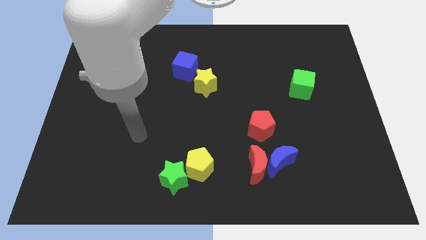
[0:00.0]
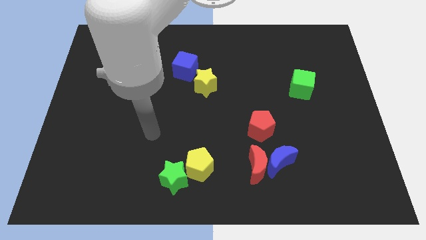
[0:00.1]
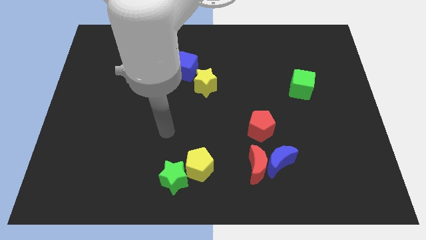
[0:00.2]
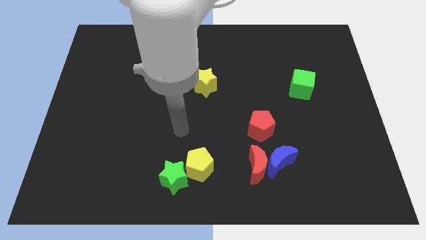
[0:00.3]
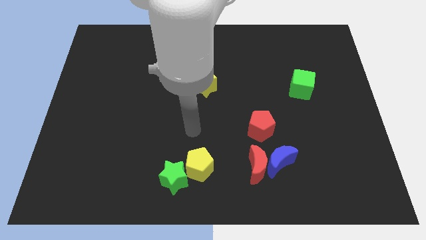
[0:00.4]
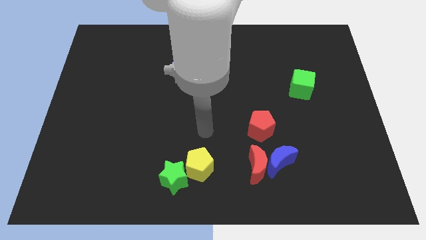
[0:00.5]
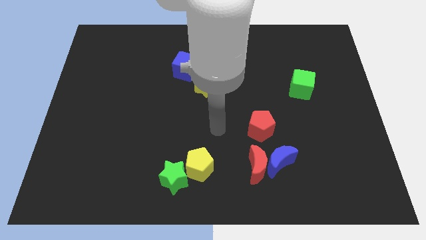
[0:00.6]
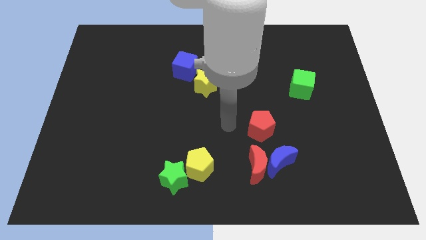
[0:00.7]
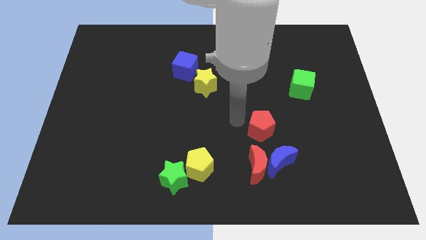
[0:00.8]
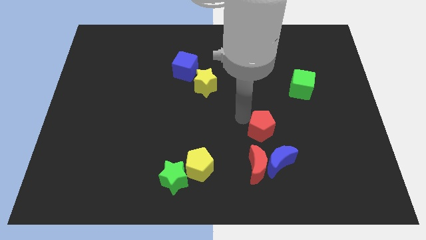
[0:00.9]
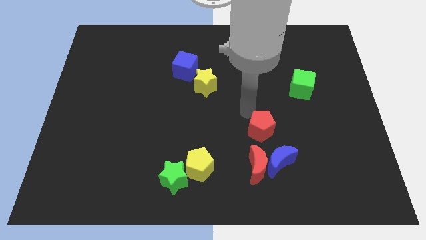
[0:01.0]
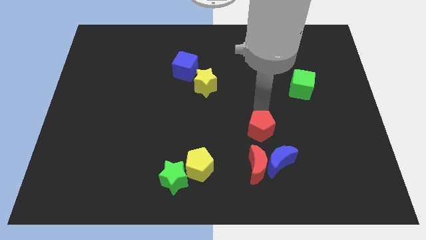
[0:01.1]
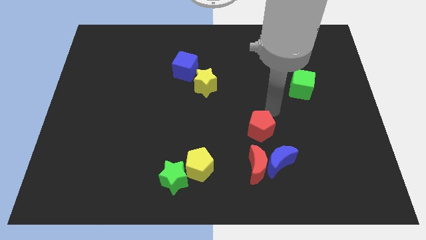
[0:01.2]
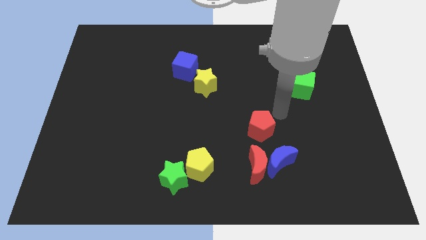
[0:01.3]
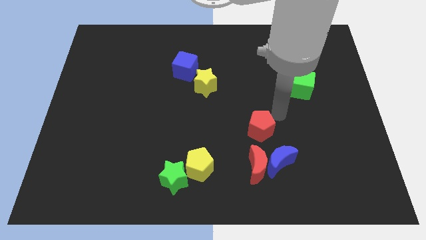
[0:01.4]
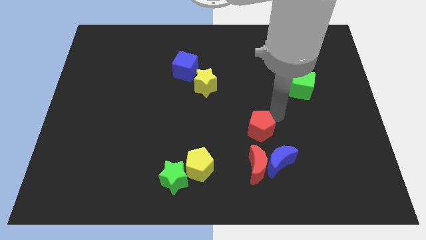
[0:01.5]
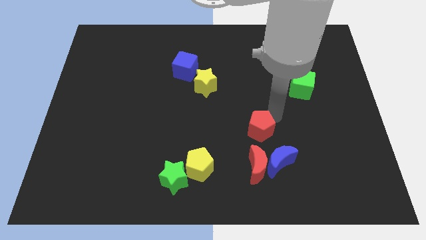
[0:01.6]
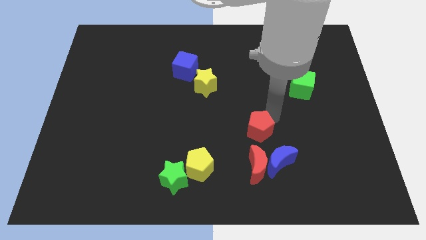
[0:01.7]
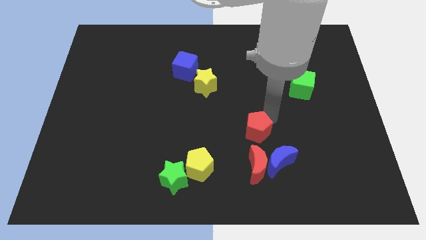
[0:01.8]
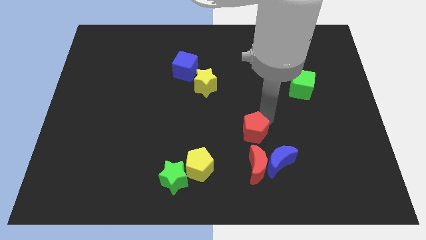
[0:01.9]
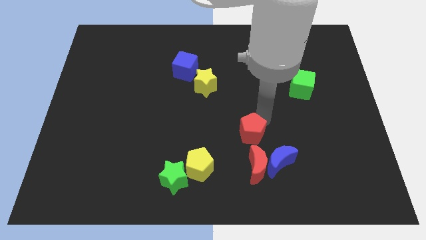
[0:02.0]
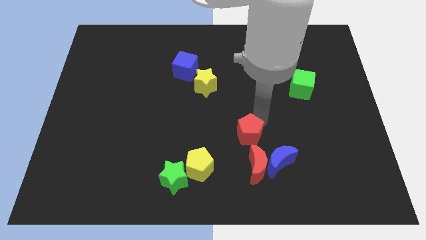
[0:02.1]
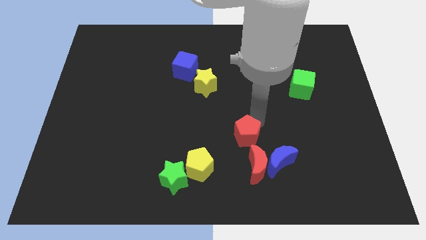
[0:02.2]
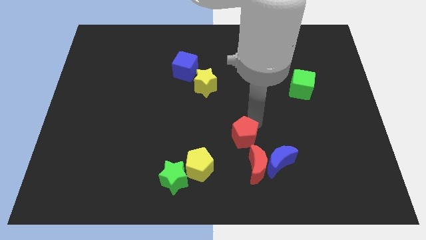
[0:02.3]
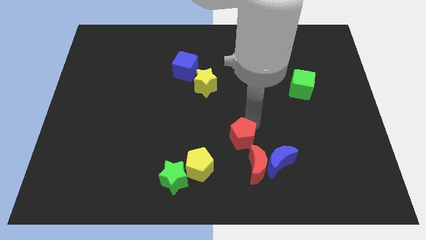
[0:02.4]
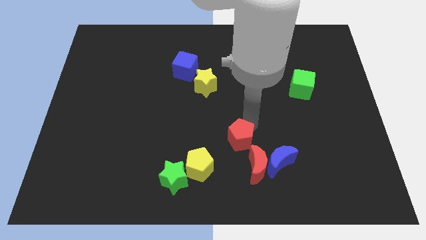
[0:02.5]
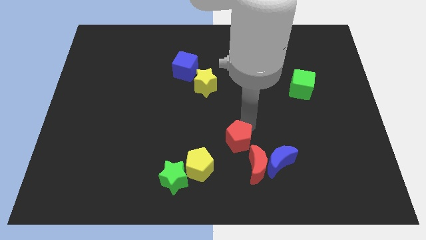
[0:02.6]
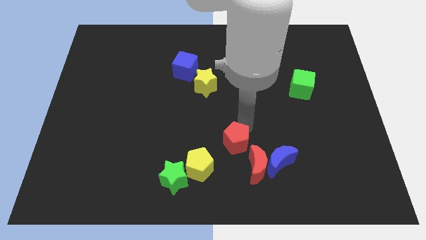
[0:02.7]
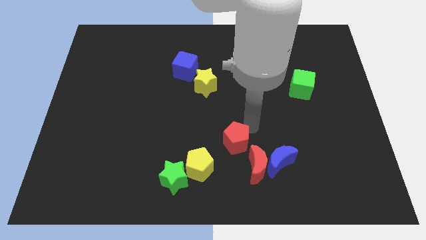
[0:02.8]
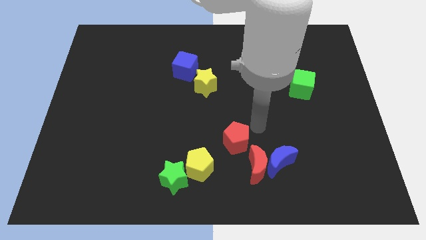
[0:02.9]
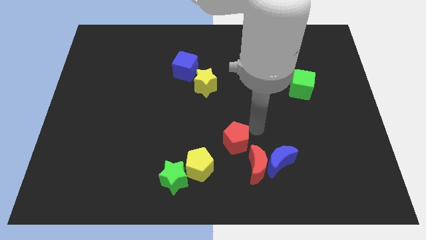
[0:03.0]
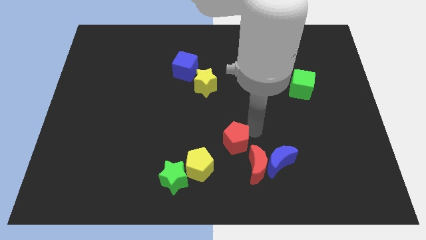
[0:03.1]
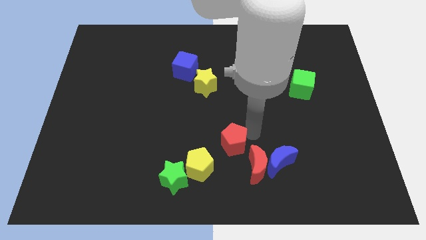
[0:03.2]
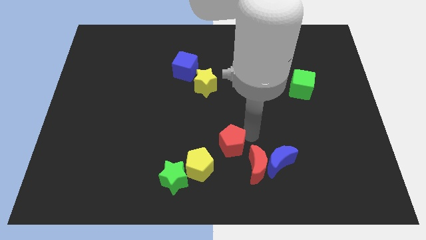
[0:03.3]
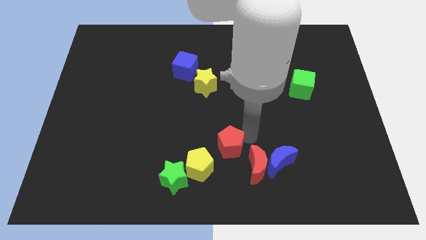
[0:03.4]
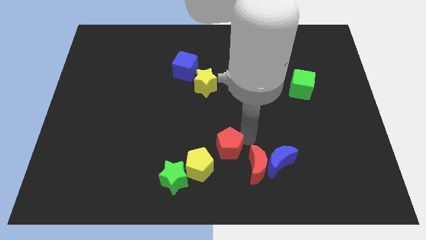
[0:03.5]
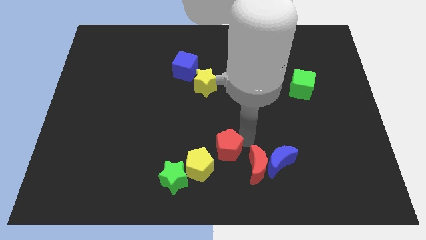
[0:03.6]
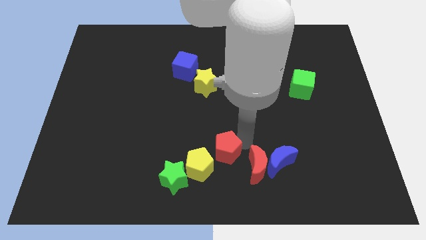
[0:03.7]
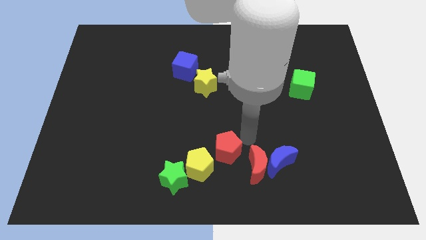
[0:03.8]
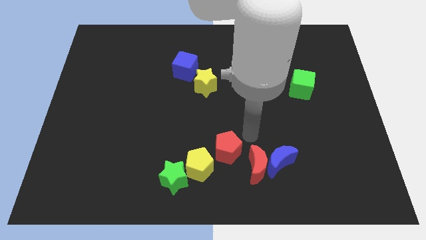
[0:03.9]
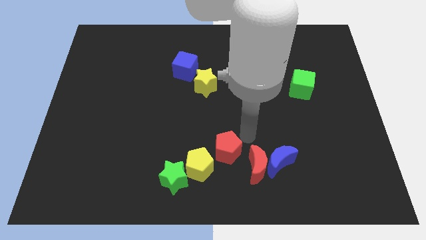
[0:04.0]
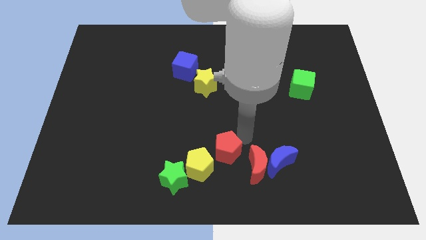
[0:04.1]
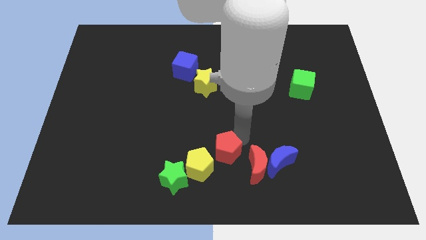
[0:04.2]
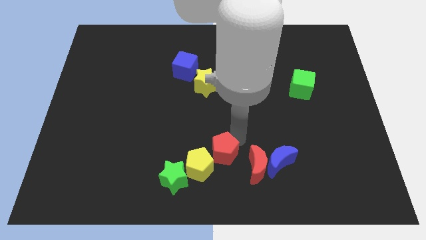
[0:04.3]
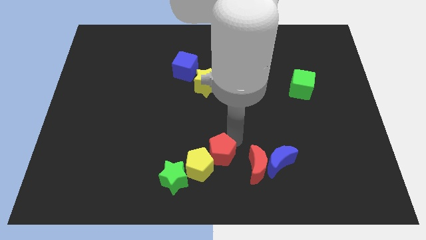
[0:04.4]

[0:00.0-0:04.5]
push the red pentagon next to the yellow pentagon

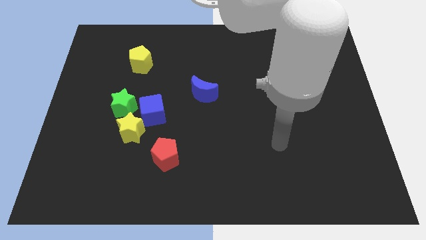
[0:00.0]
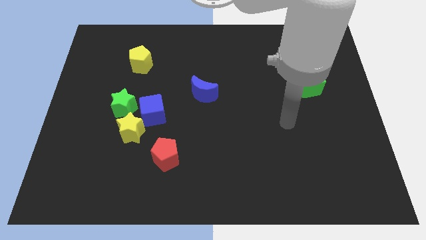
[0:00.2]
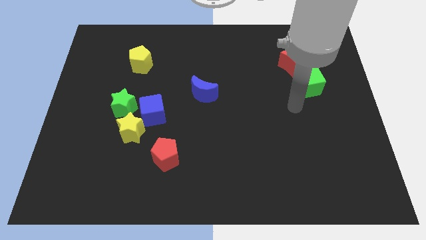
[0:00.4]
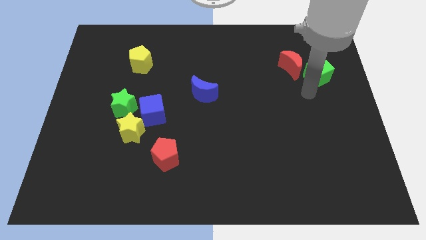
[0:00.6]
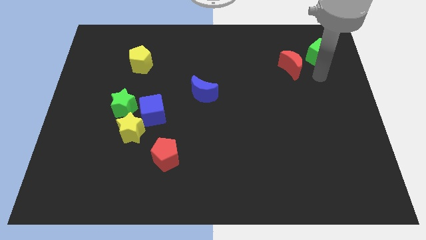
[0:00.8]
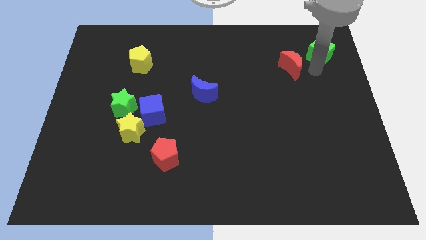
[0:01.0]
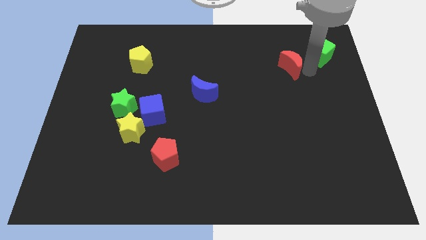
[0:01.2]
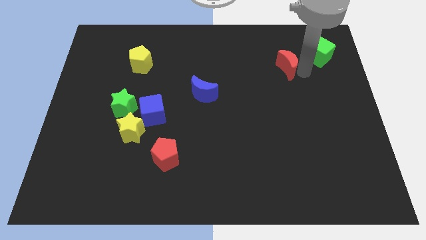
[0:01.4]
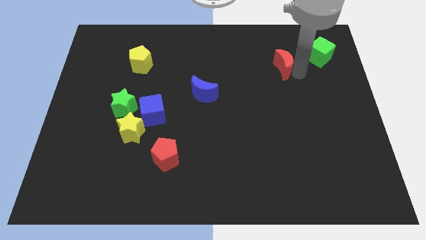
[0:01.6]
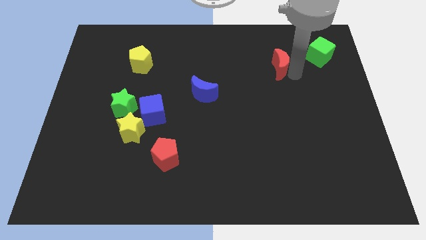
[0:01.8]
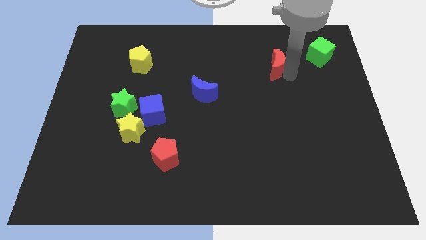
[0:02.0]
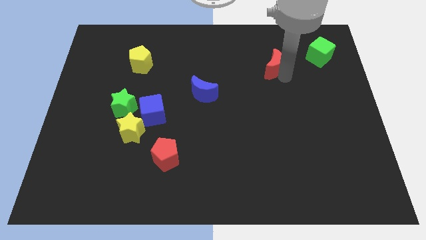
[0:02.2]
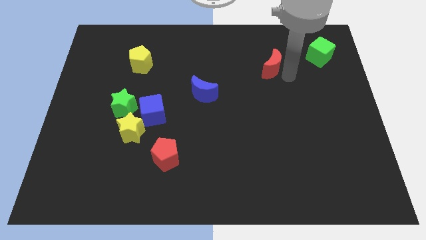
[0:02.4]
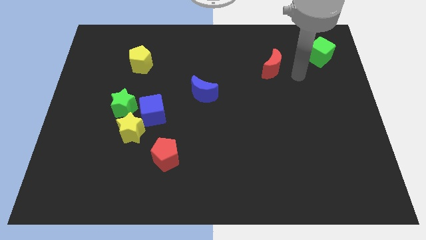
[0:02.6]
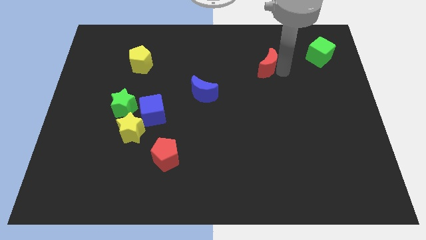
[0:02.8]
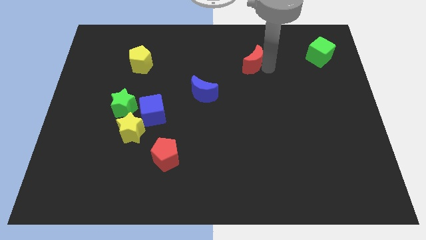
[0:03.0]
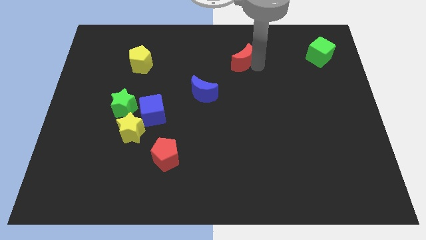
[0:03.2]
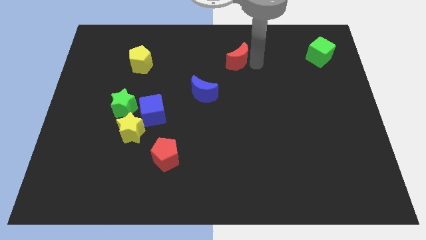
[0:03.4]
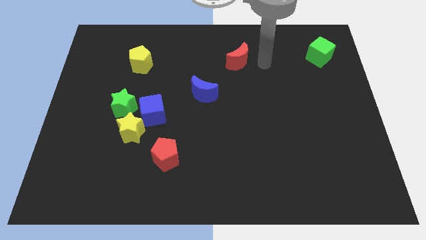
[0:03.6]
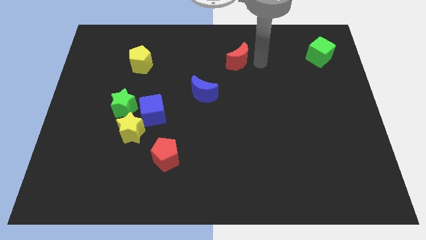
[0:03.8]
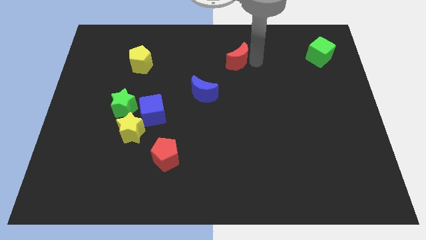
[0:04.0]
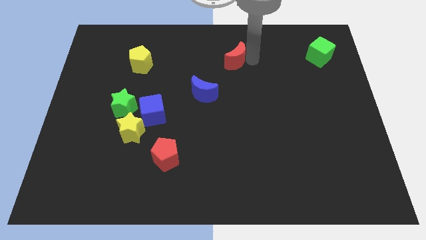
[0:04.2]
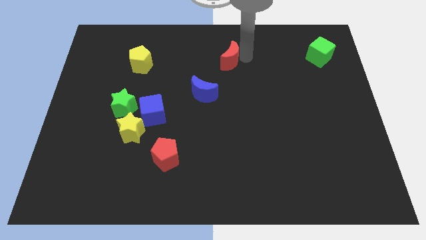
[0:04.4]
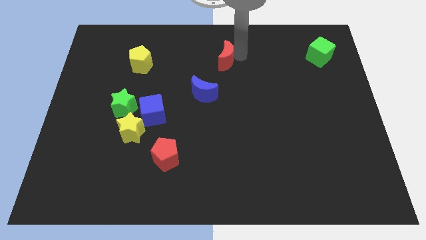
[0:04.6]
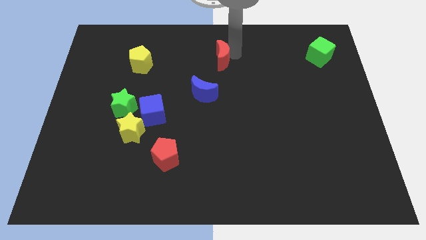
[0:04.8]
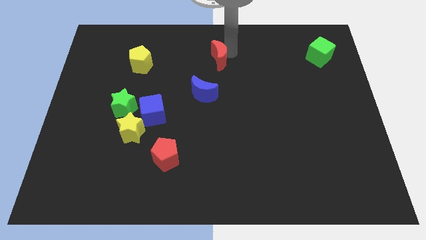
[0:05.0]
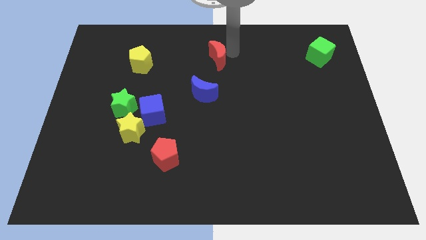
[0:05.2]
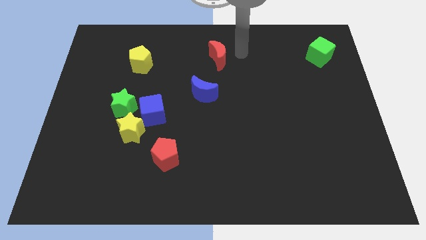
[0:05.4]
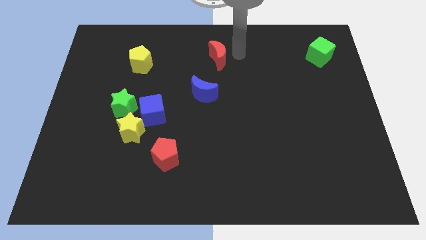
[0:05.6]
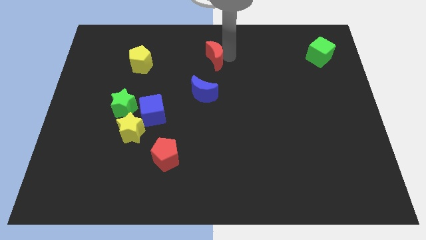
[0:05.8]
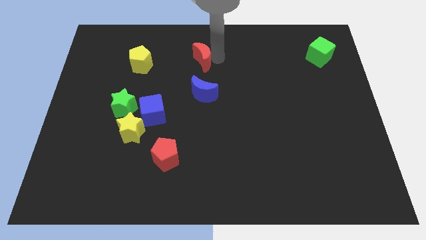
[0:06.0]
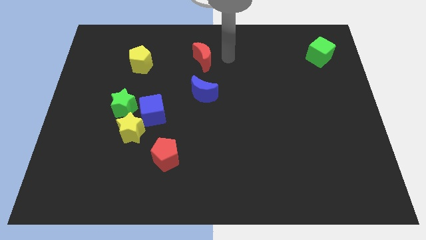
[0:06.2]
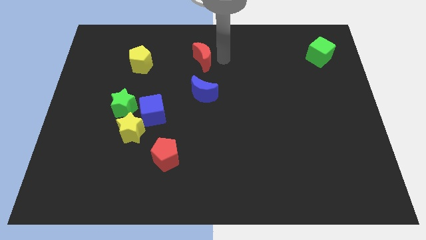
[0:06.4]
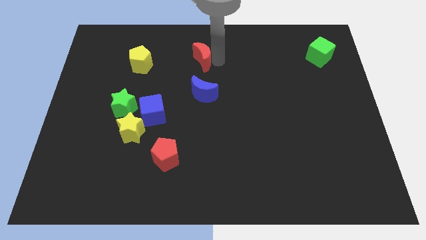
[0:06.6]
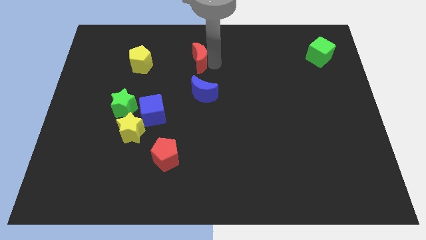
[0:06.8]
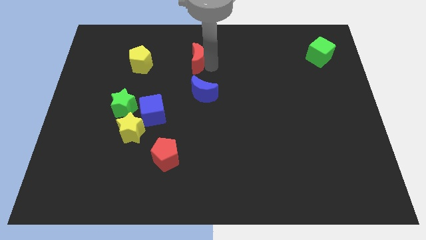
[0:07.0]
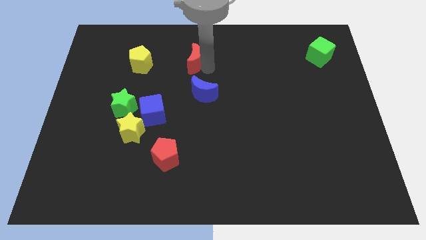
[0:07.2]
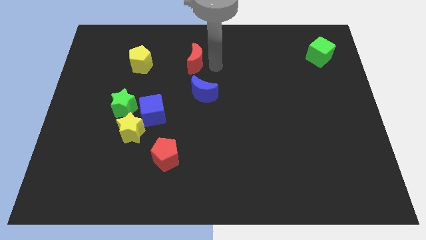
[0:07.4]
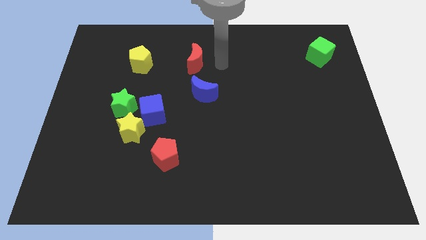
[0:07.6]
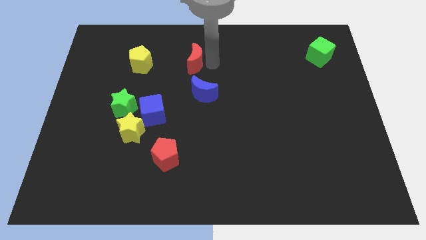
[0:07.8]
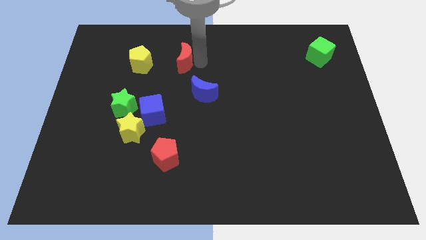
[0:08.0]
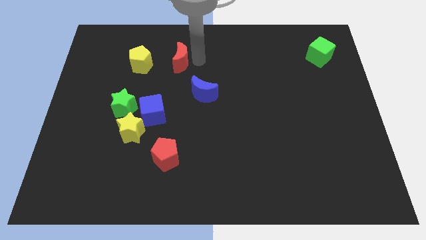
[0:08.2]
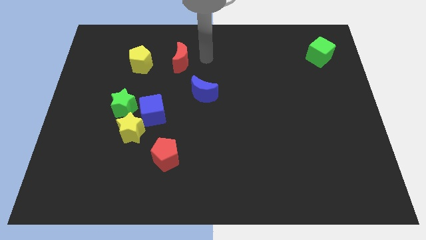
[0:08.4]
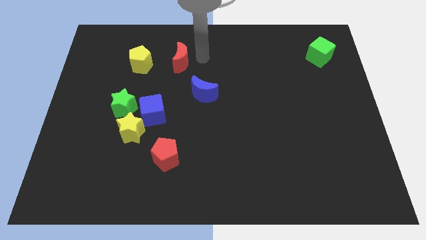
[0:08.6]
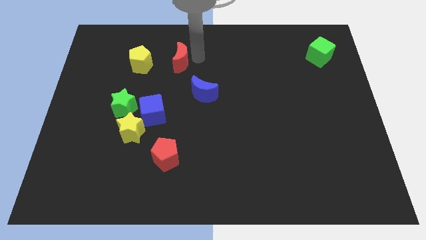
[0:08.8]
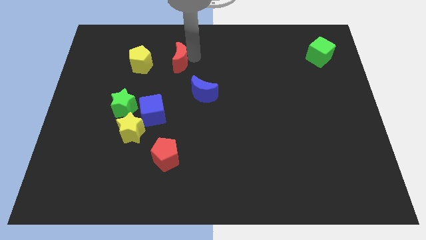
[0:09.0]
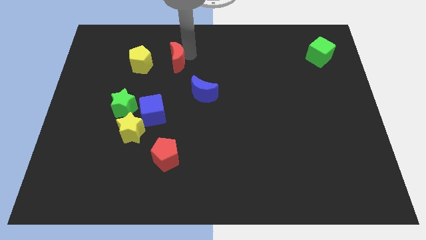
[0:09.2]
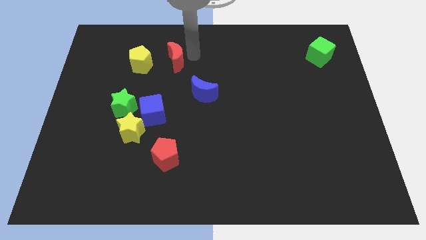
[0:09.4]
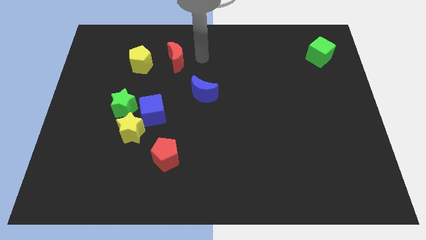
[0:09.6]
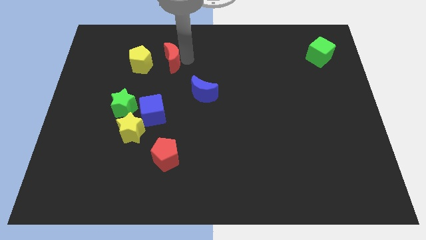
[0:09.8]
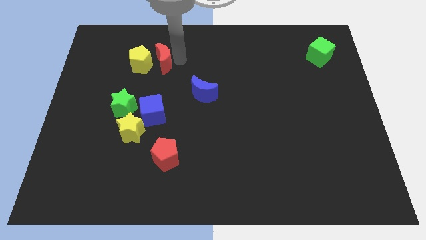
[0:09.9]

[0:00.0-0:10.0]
push the red moon next to the yellow pentagon
